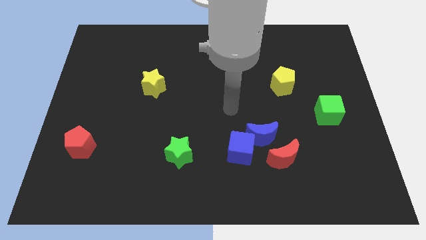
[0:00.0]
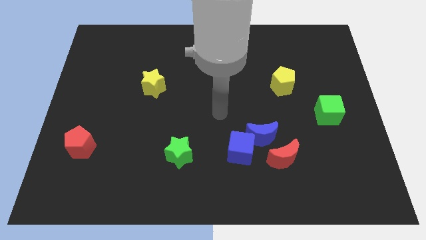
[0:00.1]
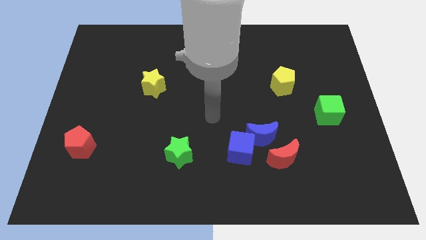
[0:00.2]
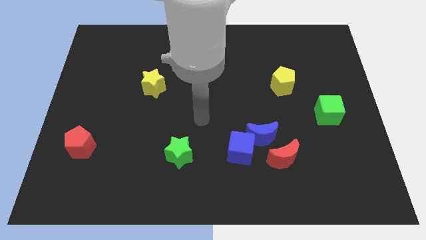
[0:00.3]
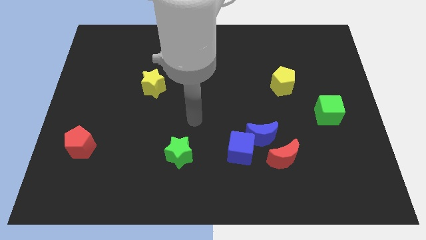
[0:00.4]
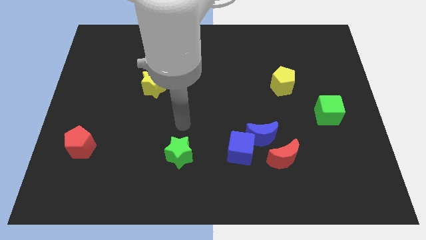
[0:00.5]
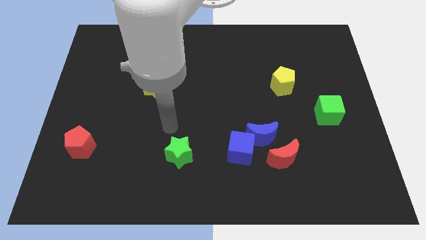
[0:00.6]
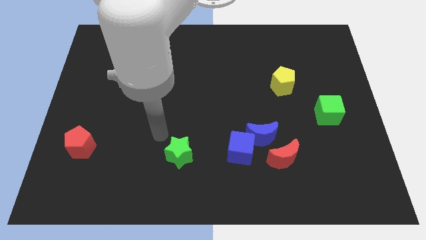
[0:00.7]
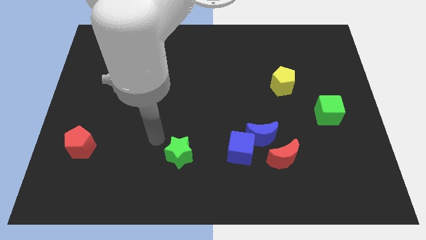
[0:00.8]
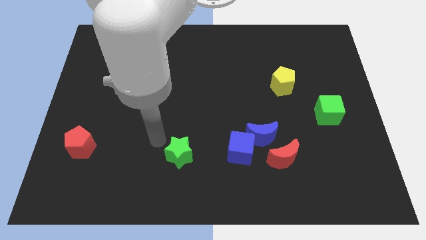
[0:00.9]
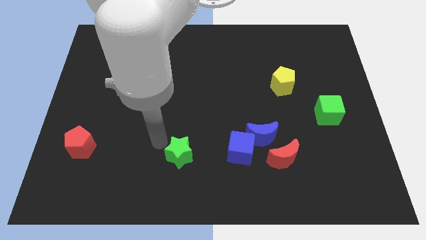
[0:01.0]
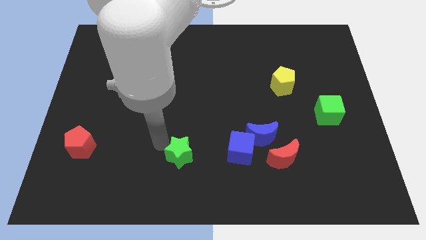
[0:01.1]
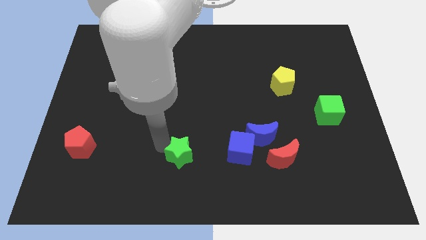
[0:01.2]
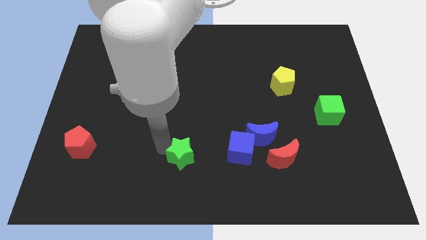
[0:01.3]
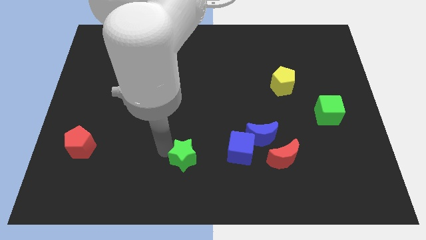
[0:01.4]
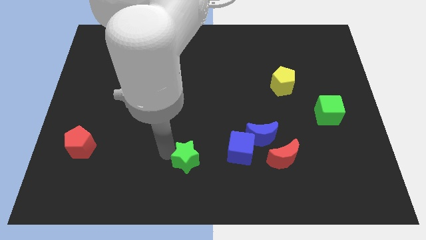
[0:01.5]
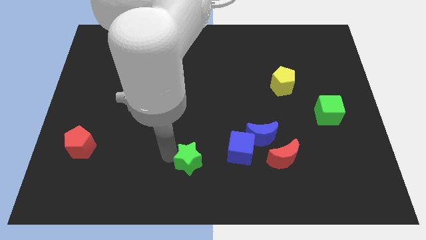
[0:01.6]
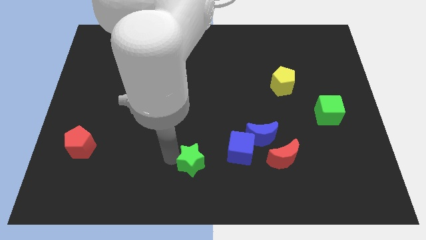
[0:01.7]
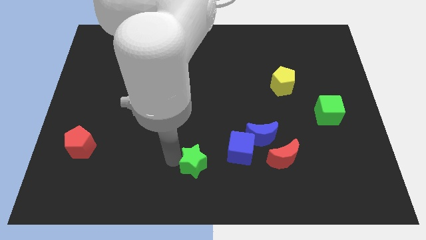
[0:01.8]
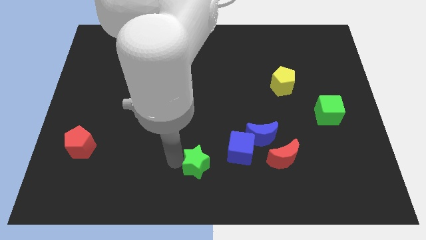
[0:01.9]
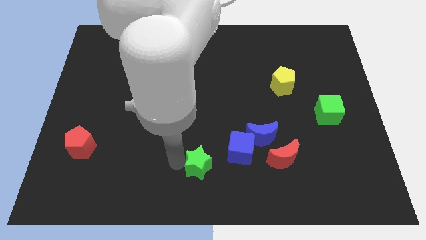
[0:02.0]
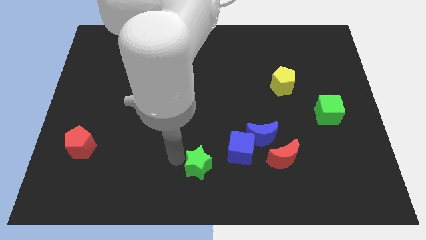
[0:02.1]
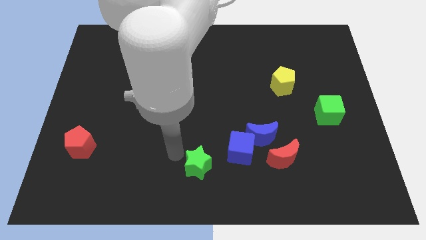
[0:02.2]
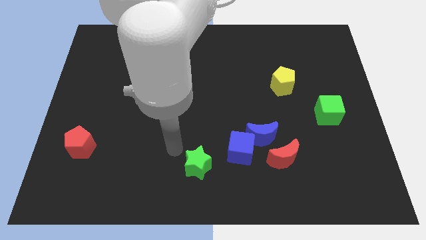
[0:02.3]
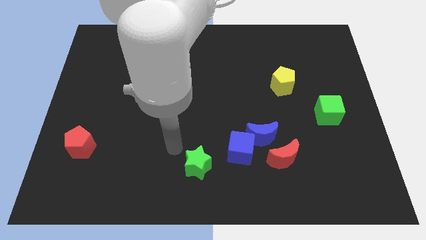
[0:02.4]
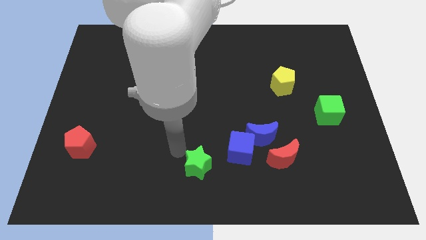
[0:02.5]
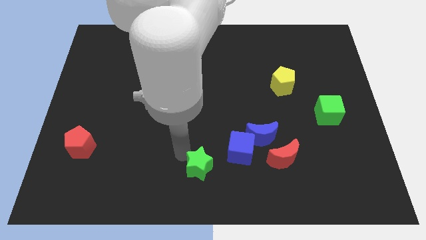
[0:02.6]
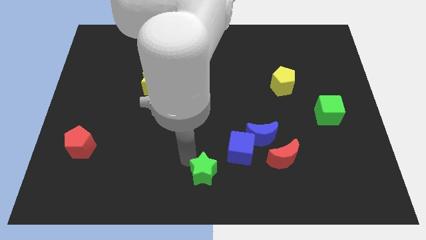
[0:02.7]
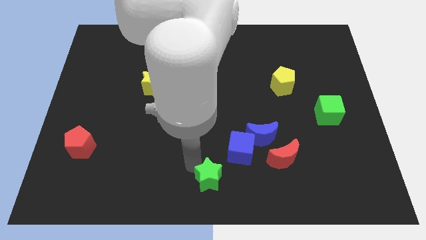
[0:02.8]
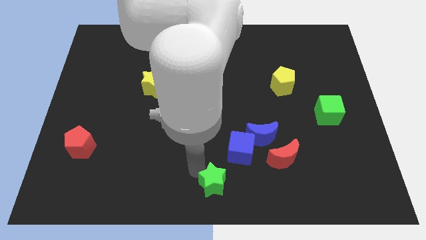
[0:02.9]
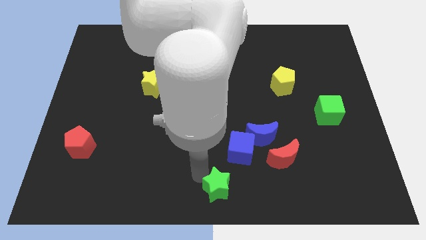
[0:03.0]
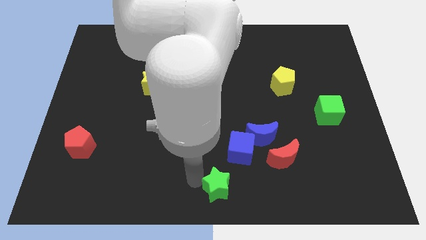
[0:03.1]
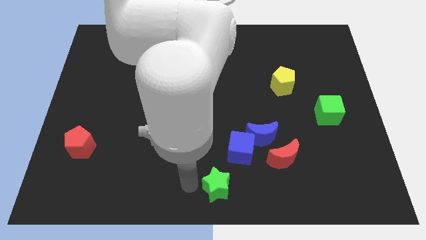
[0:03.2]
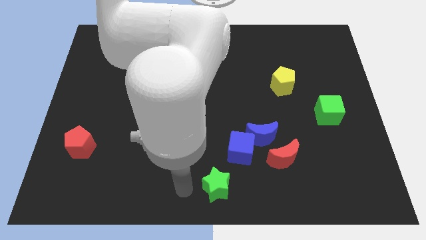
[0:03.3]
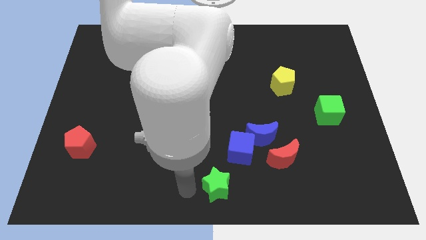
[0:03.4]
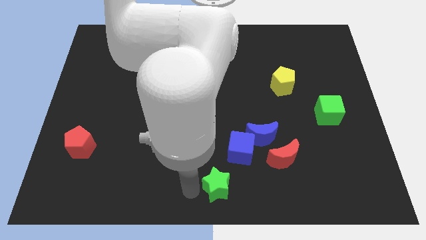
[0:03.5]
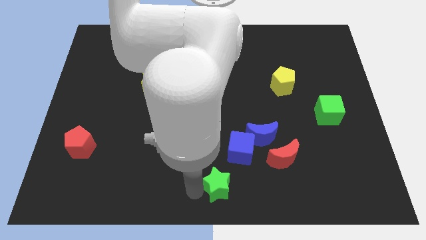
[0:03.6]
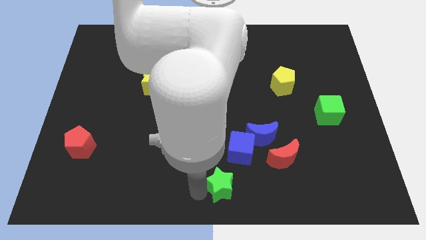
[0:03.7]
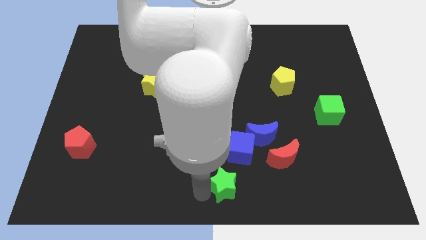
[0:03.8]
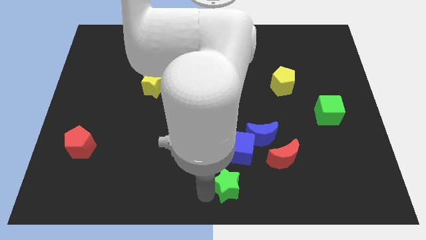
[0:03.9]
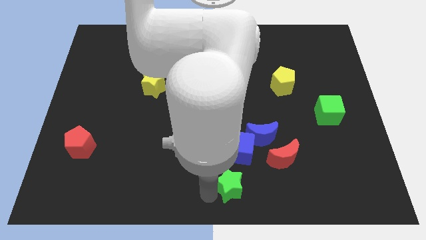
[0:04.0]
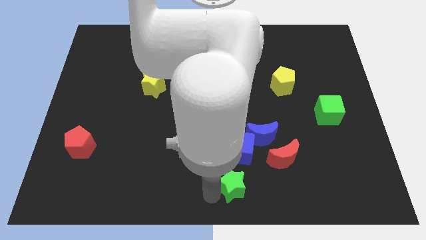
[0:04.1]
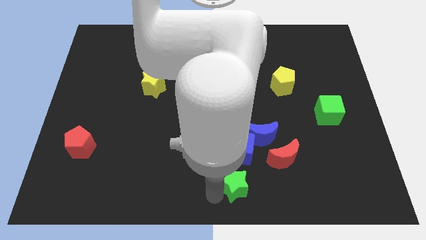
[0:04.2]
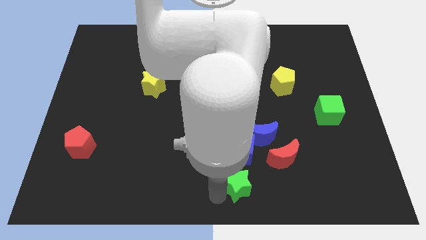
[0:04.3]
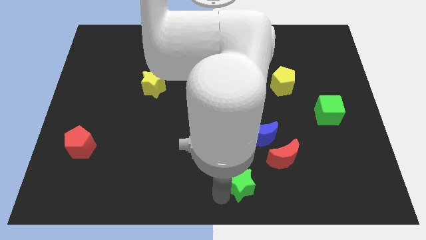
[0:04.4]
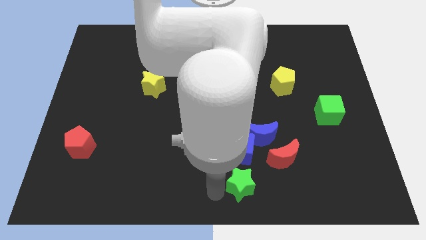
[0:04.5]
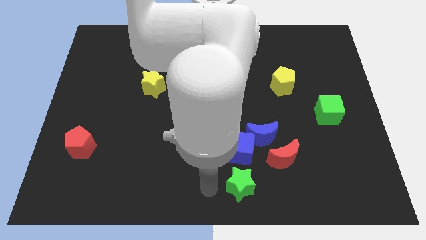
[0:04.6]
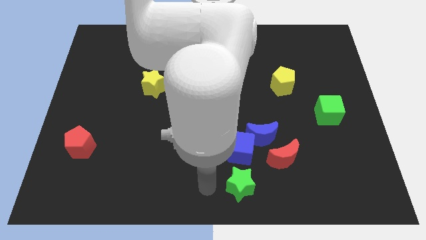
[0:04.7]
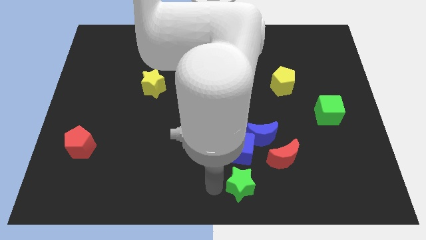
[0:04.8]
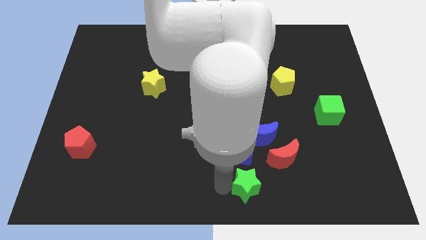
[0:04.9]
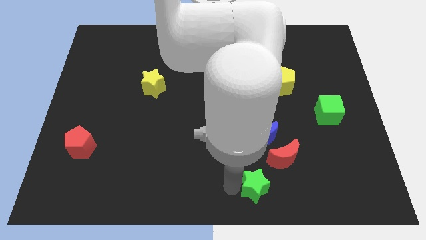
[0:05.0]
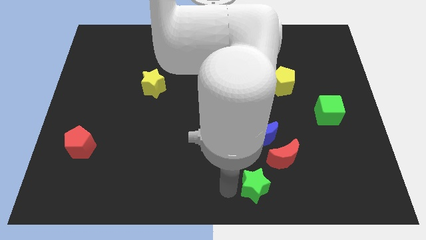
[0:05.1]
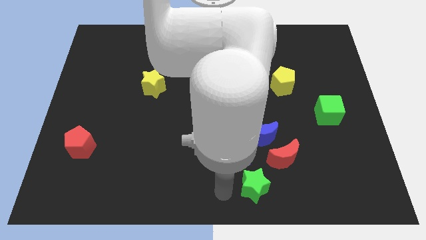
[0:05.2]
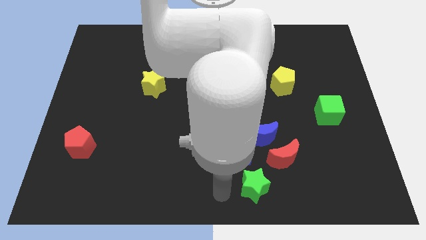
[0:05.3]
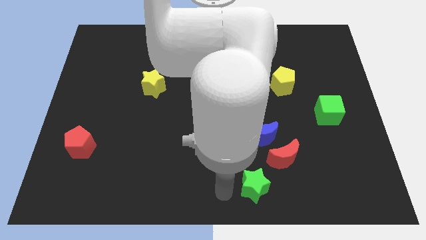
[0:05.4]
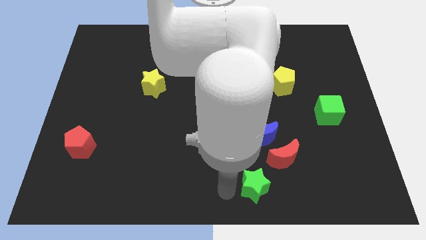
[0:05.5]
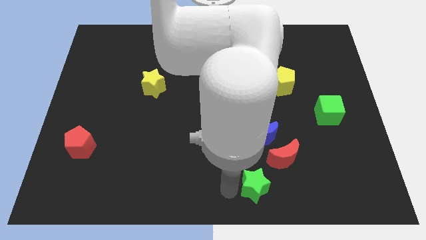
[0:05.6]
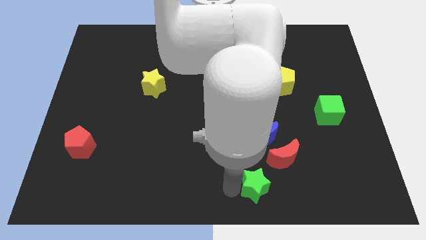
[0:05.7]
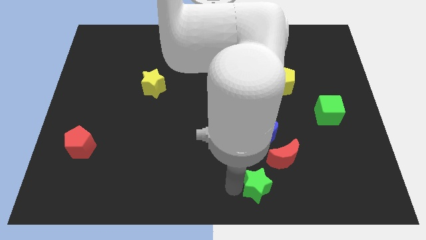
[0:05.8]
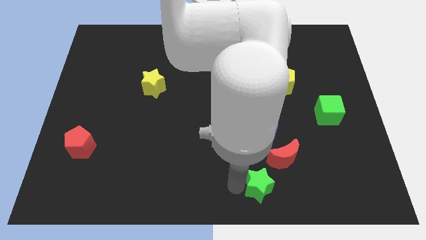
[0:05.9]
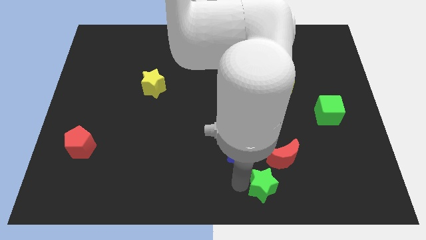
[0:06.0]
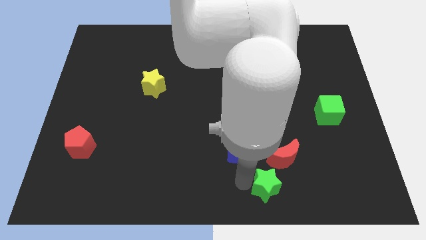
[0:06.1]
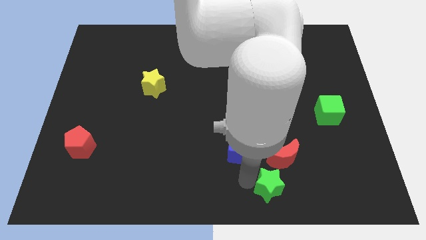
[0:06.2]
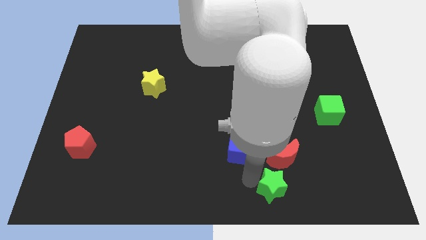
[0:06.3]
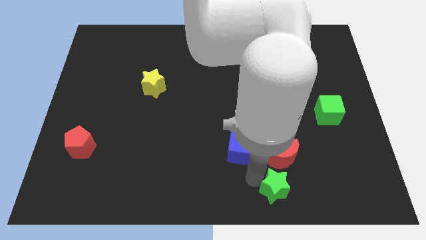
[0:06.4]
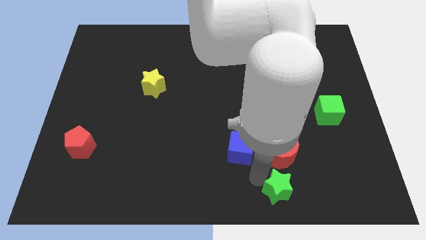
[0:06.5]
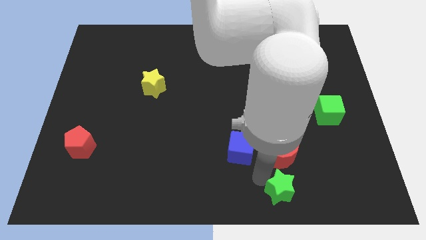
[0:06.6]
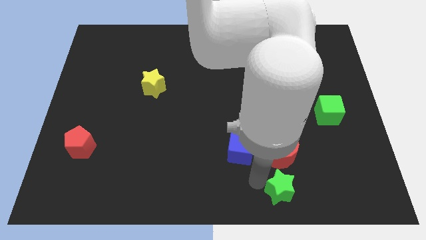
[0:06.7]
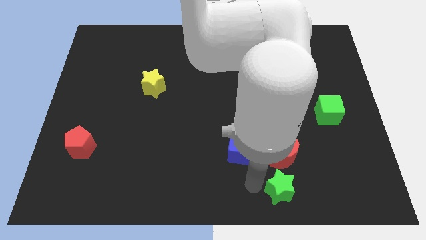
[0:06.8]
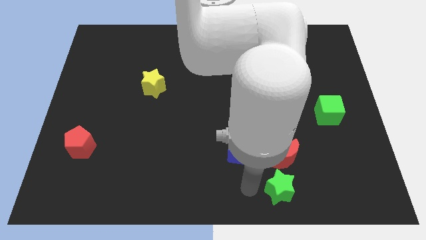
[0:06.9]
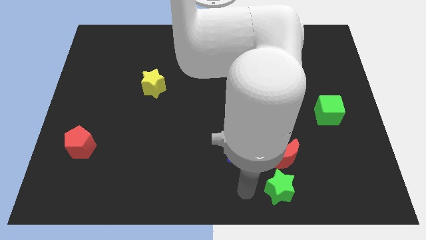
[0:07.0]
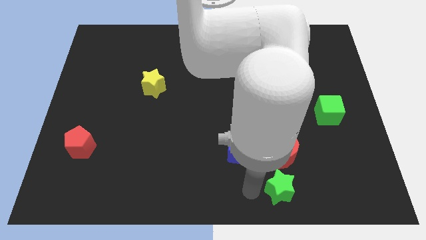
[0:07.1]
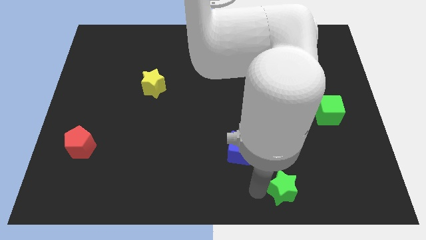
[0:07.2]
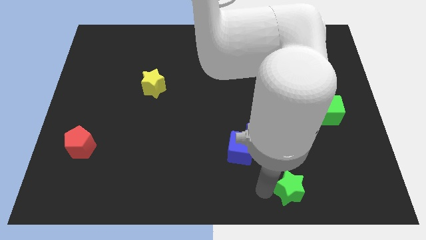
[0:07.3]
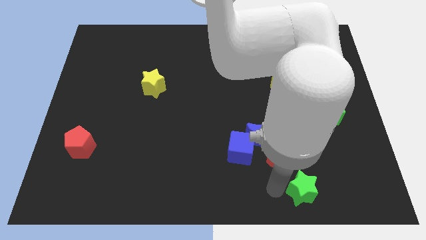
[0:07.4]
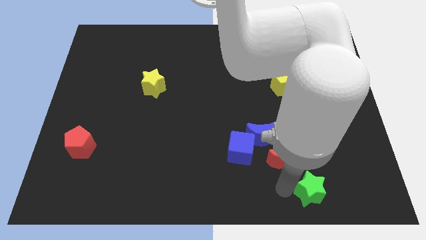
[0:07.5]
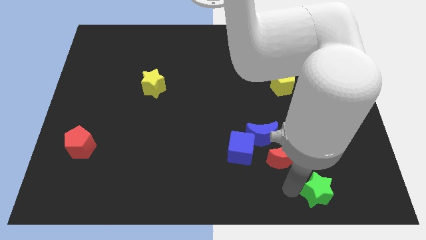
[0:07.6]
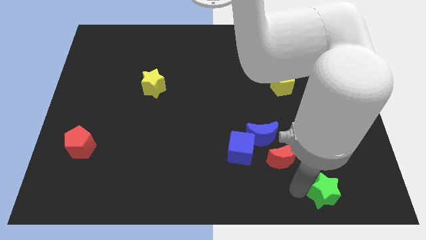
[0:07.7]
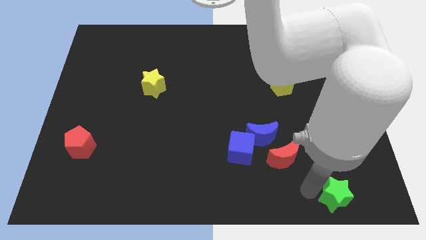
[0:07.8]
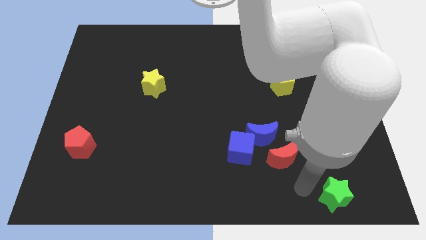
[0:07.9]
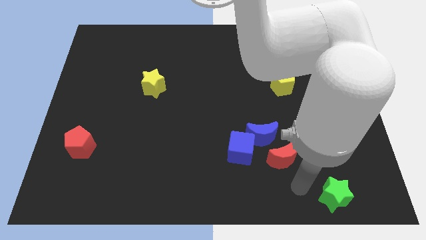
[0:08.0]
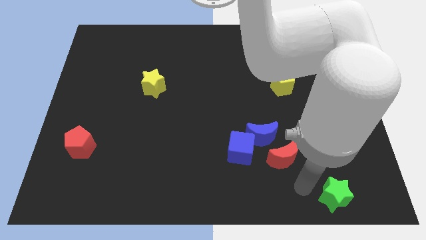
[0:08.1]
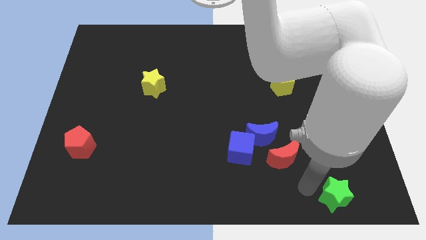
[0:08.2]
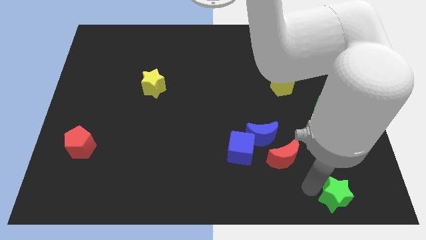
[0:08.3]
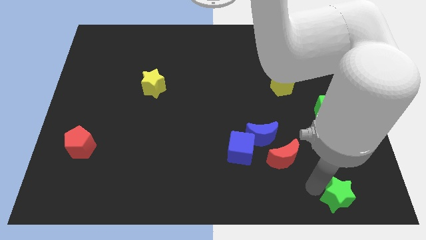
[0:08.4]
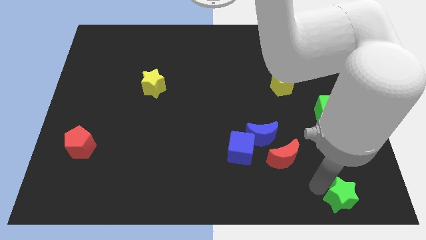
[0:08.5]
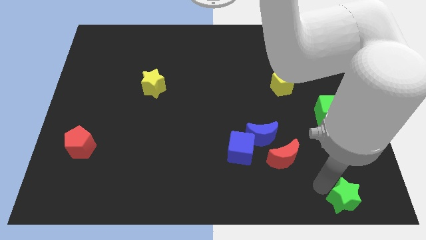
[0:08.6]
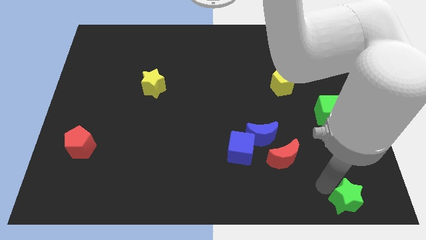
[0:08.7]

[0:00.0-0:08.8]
slide the green star to the bottom right of the board
